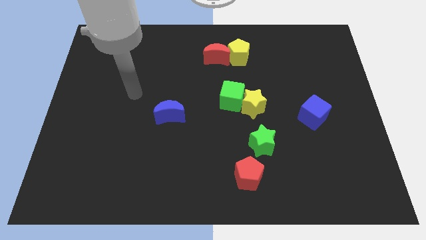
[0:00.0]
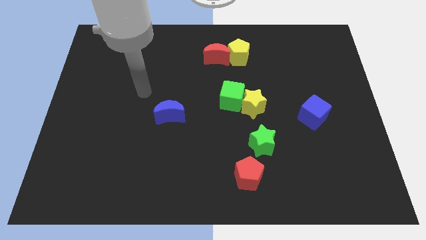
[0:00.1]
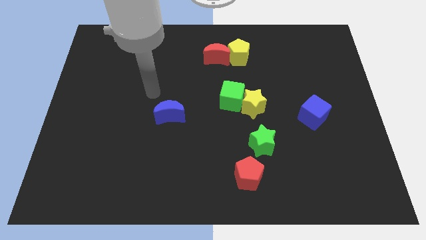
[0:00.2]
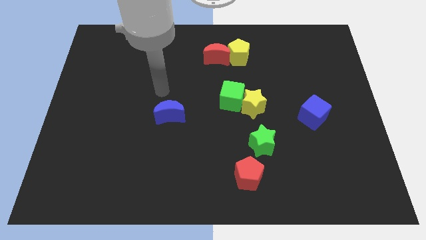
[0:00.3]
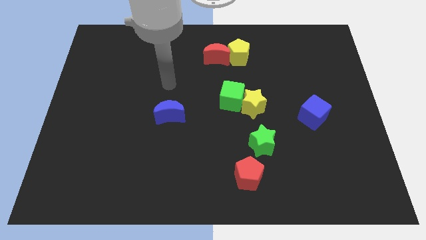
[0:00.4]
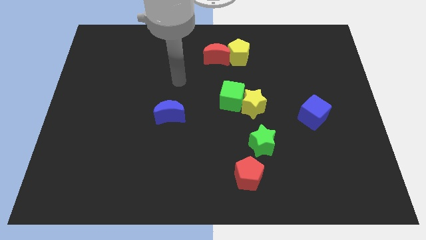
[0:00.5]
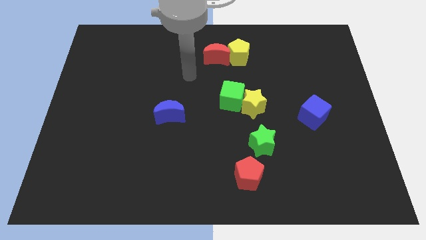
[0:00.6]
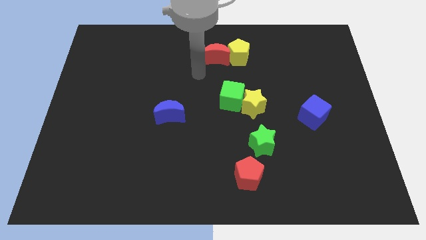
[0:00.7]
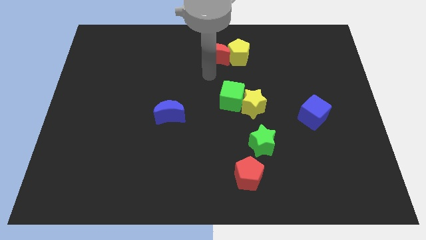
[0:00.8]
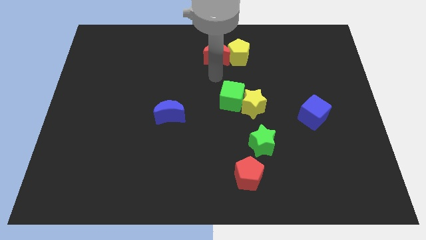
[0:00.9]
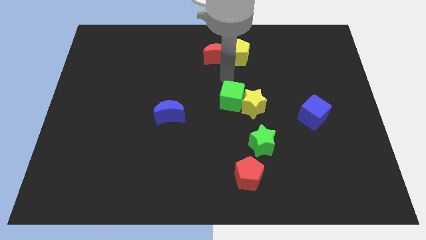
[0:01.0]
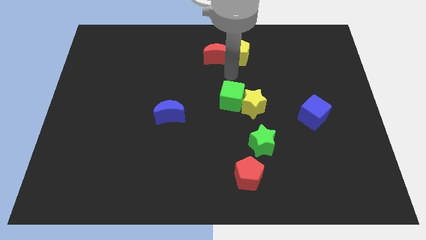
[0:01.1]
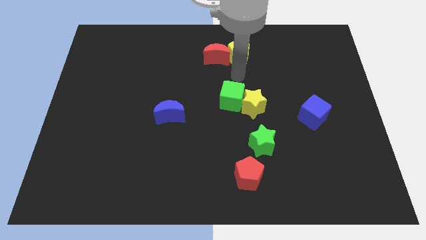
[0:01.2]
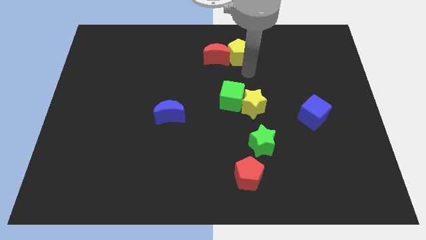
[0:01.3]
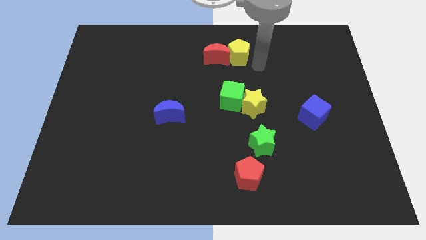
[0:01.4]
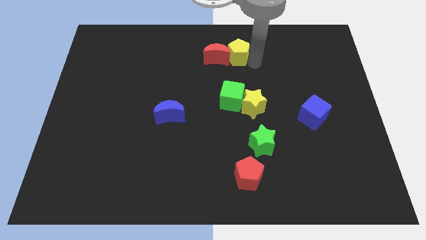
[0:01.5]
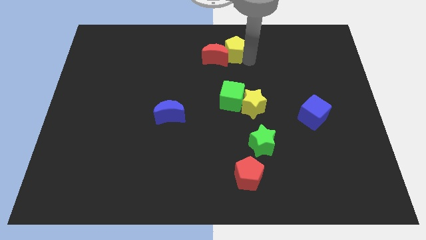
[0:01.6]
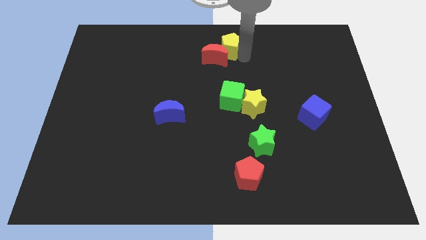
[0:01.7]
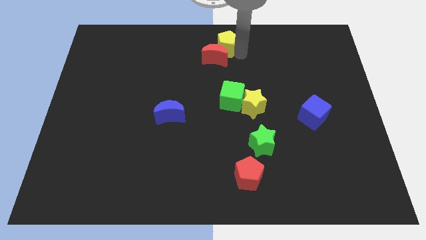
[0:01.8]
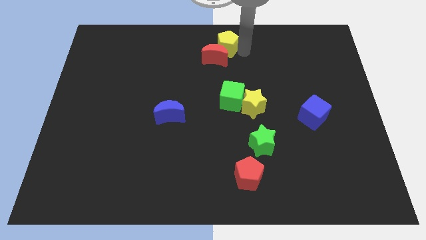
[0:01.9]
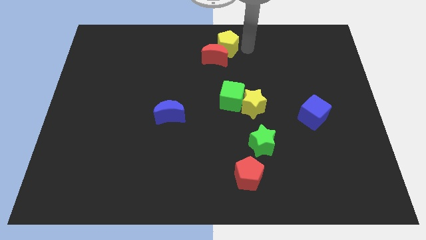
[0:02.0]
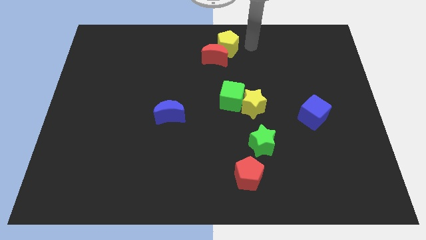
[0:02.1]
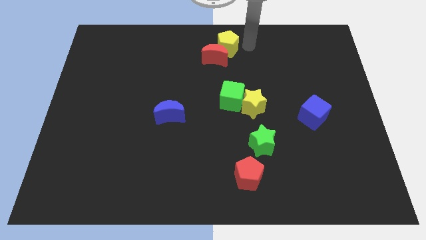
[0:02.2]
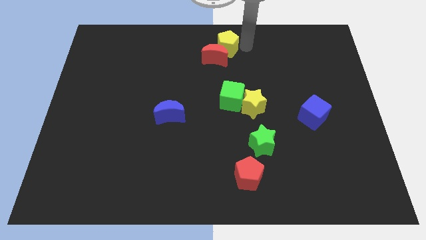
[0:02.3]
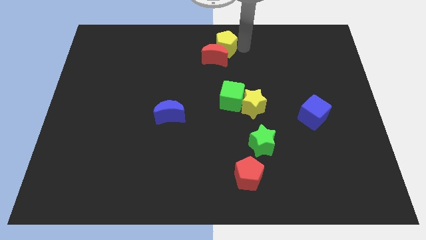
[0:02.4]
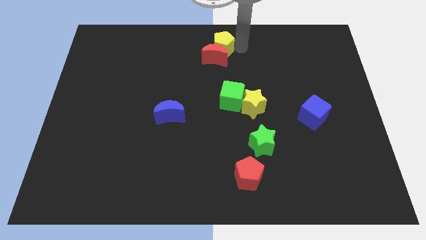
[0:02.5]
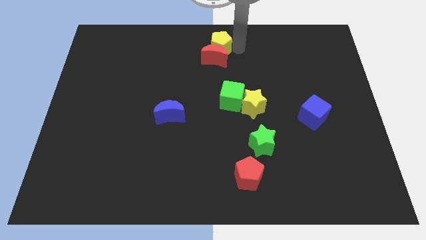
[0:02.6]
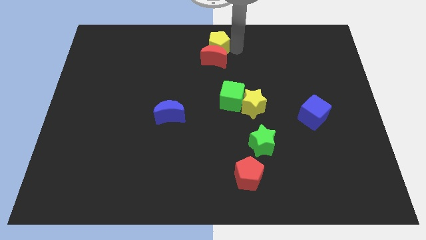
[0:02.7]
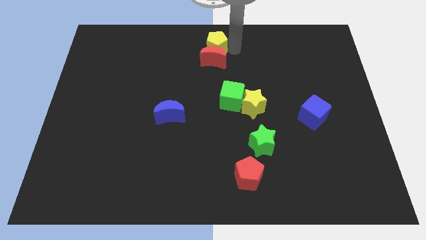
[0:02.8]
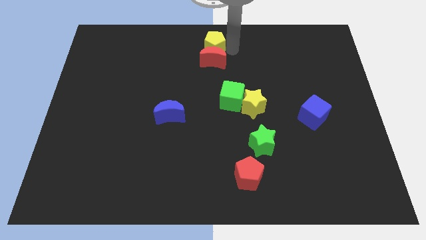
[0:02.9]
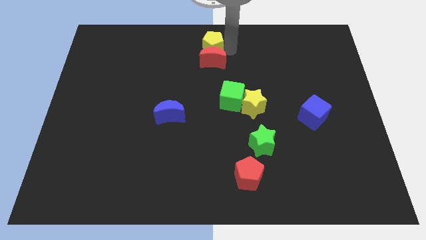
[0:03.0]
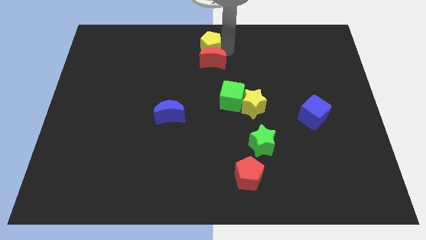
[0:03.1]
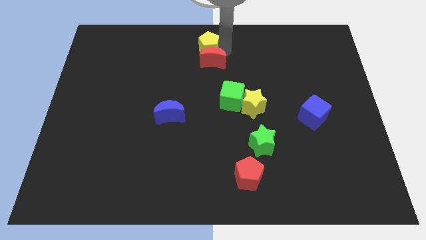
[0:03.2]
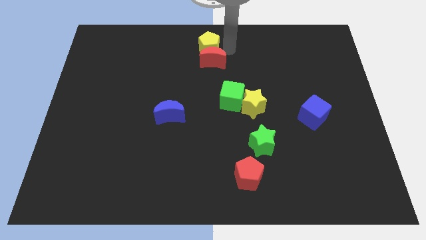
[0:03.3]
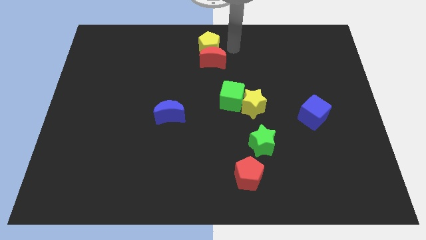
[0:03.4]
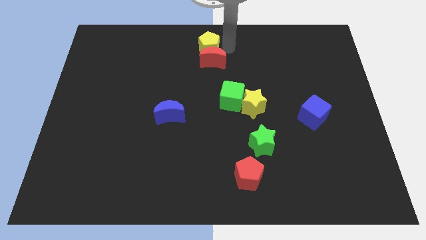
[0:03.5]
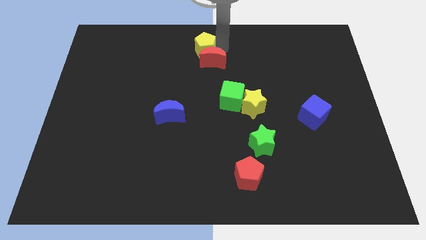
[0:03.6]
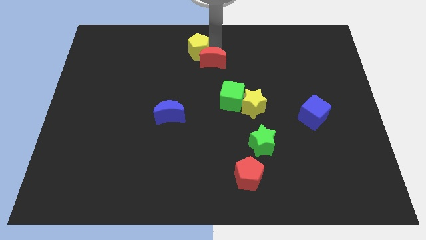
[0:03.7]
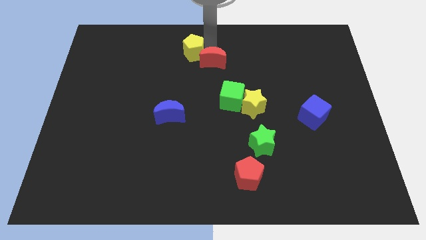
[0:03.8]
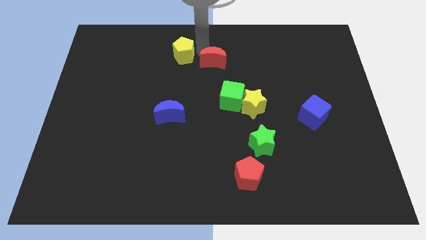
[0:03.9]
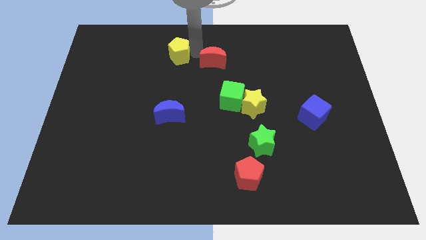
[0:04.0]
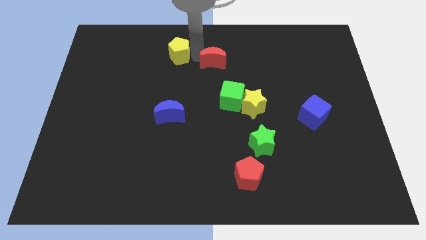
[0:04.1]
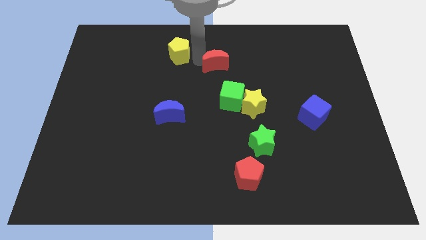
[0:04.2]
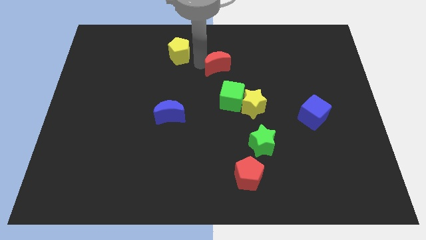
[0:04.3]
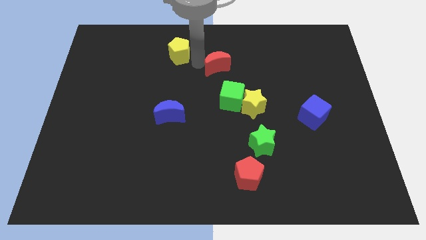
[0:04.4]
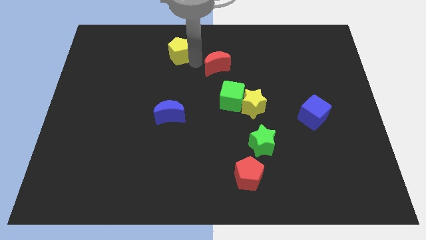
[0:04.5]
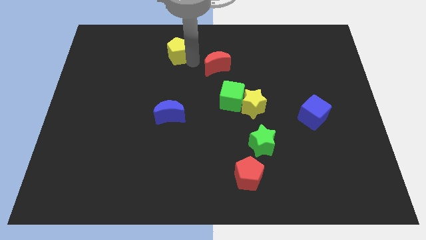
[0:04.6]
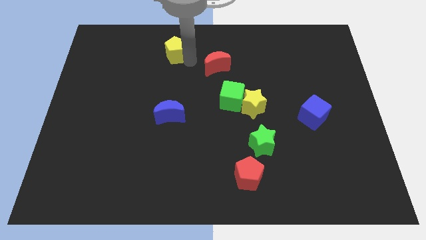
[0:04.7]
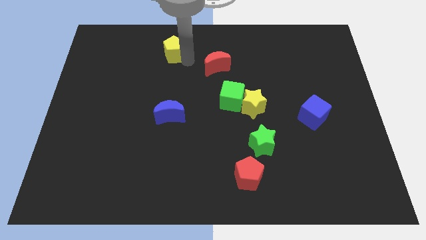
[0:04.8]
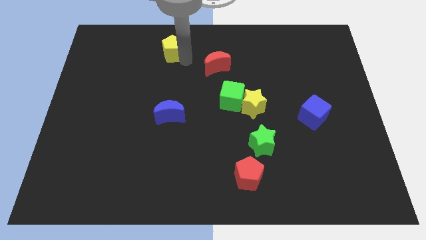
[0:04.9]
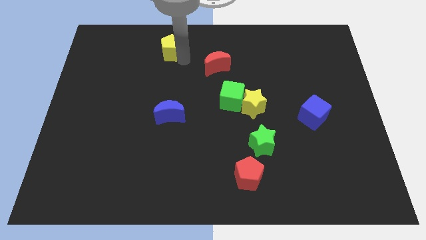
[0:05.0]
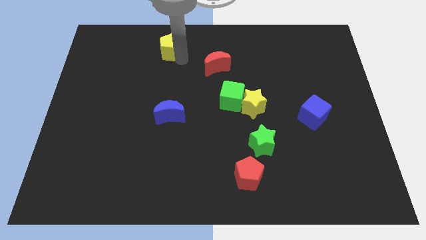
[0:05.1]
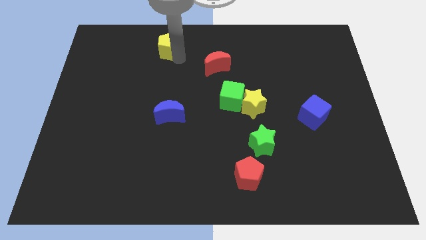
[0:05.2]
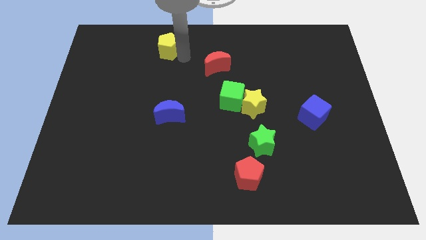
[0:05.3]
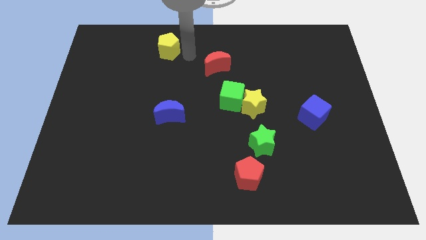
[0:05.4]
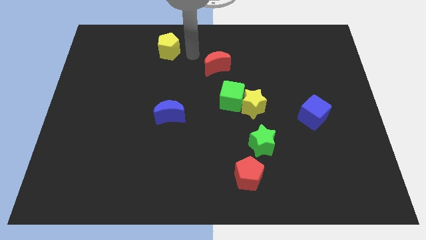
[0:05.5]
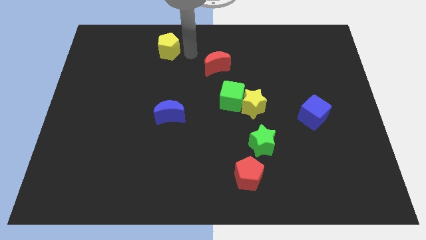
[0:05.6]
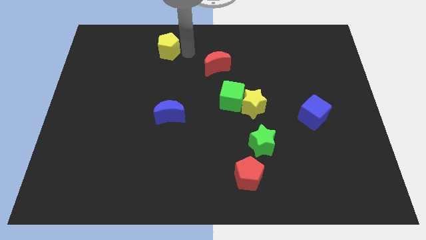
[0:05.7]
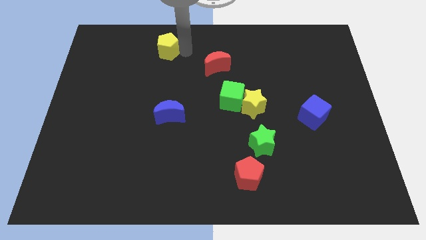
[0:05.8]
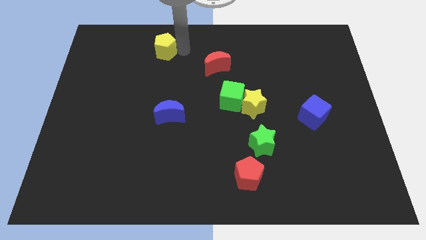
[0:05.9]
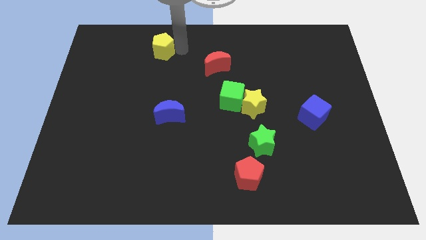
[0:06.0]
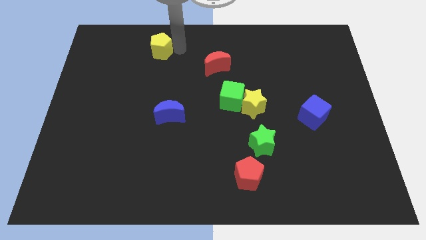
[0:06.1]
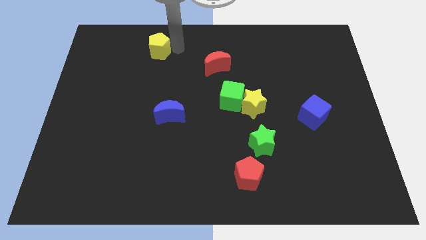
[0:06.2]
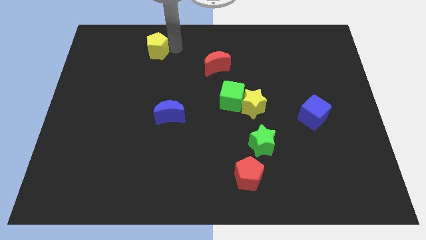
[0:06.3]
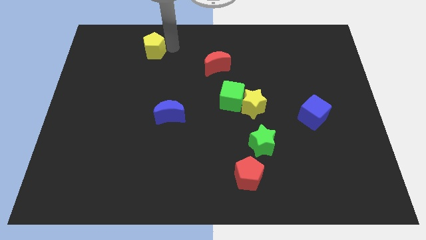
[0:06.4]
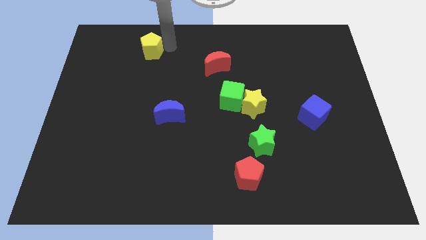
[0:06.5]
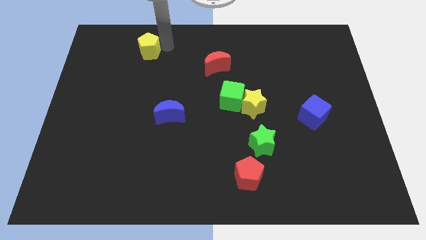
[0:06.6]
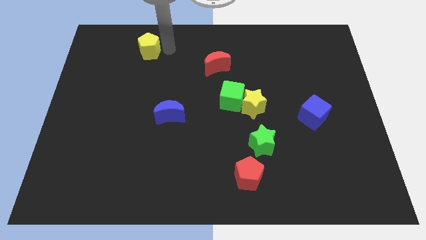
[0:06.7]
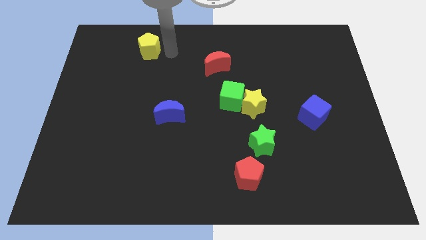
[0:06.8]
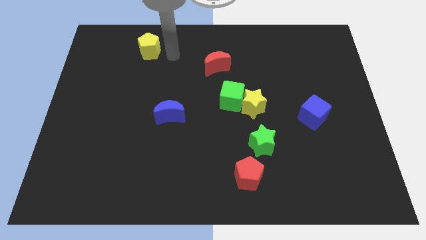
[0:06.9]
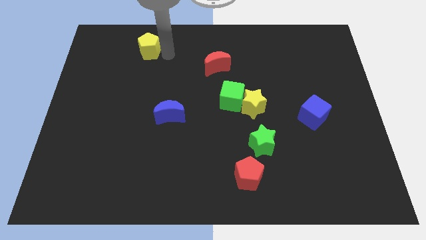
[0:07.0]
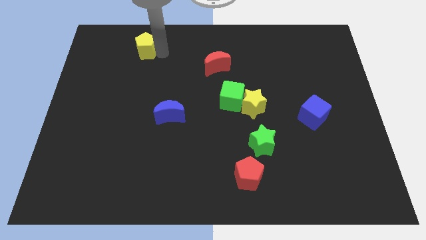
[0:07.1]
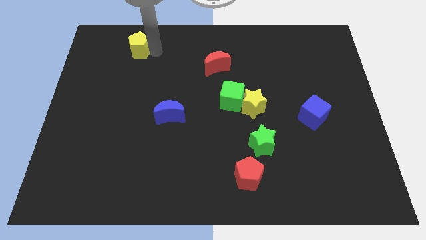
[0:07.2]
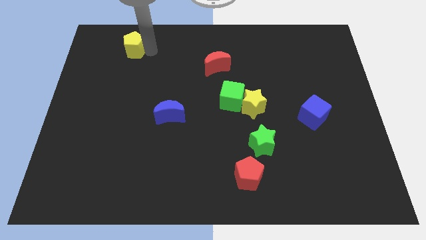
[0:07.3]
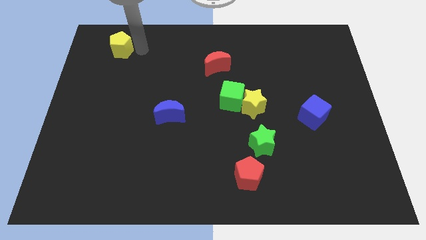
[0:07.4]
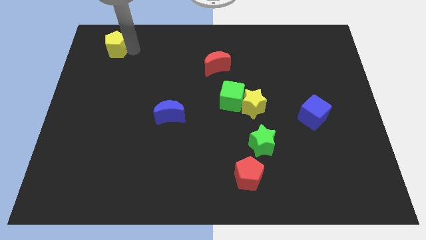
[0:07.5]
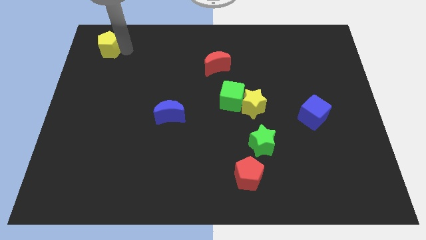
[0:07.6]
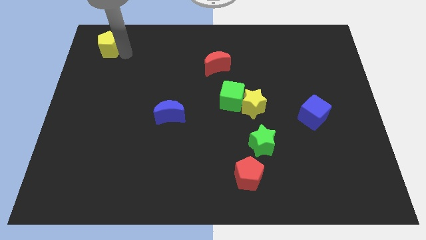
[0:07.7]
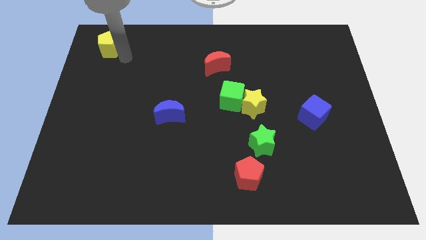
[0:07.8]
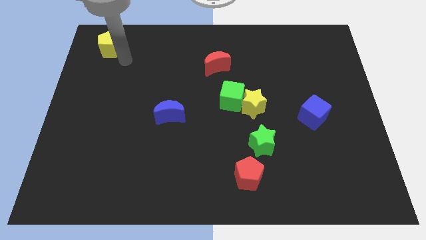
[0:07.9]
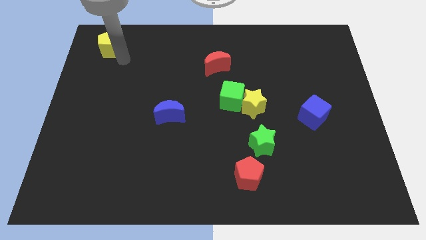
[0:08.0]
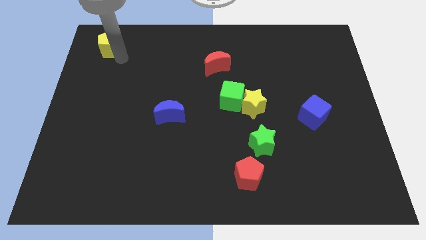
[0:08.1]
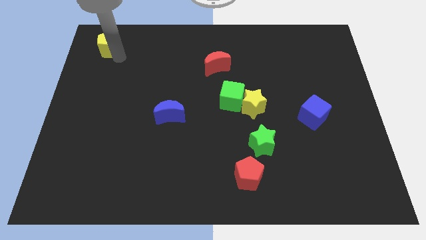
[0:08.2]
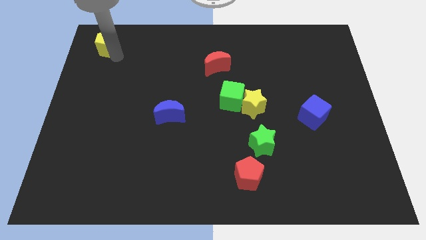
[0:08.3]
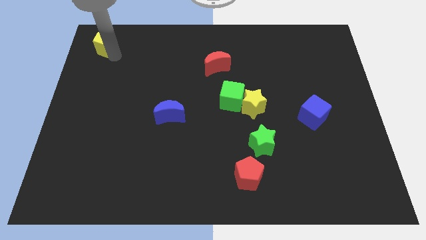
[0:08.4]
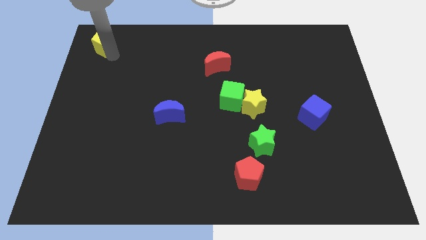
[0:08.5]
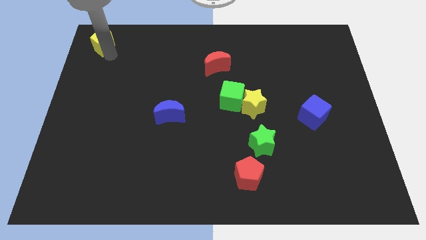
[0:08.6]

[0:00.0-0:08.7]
move the yellow pentagon to the top left of the board
